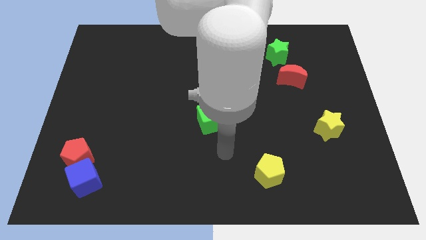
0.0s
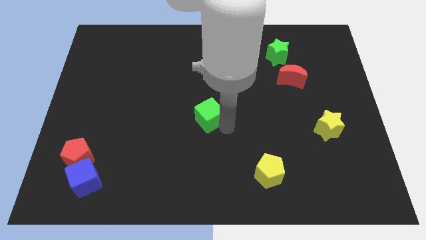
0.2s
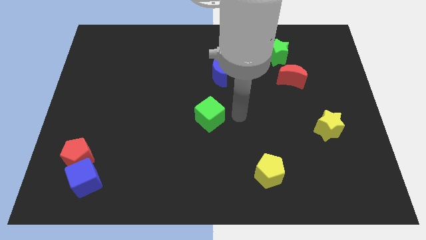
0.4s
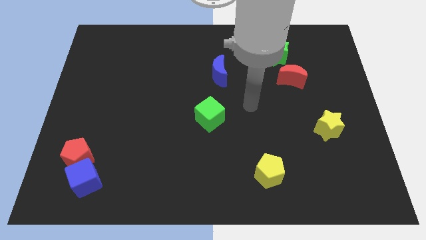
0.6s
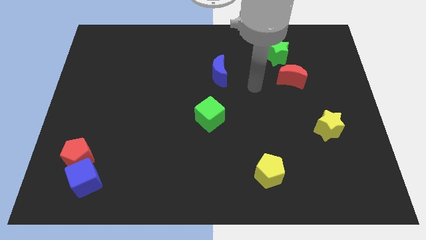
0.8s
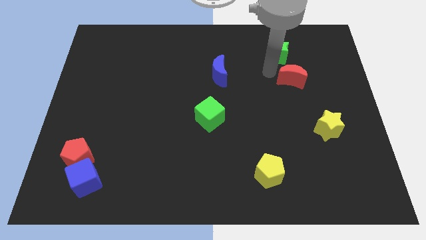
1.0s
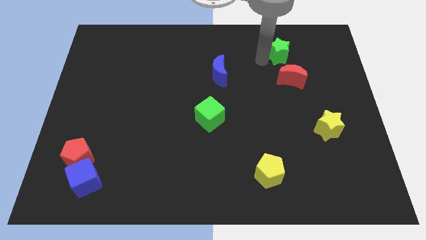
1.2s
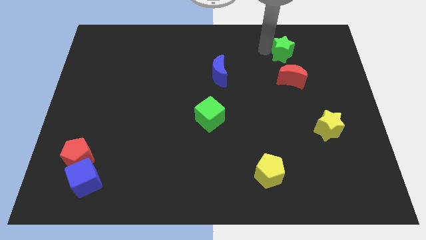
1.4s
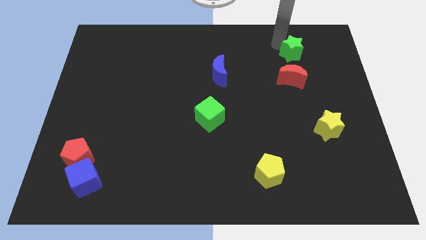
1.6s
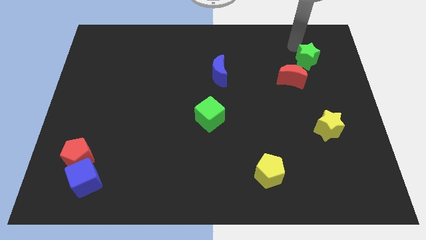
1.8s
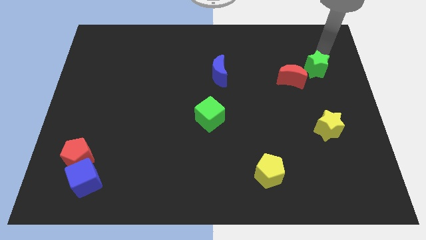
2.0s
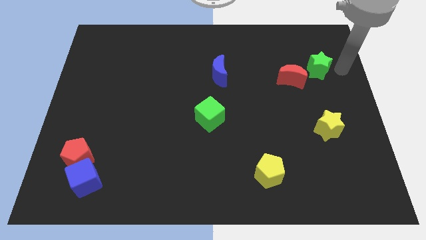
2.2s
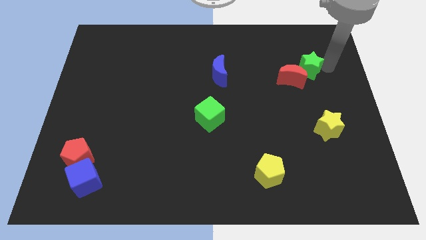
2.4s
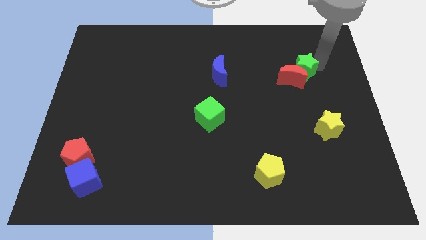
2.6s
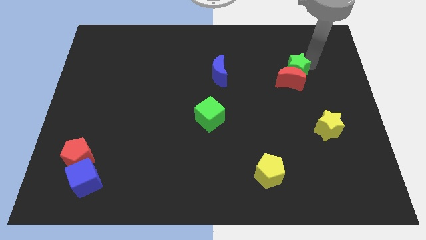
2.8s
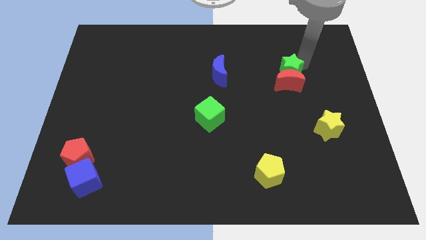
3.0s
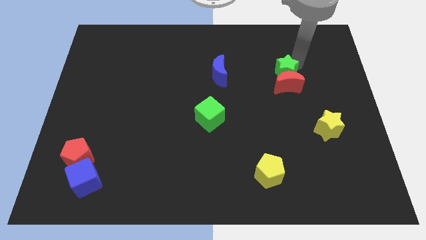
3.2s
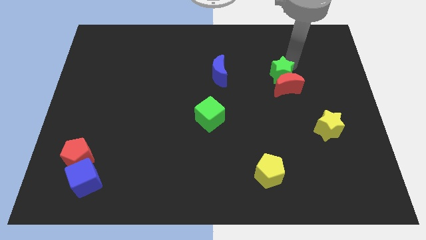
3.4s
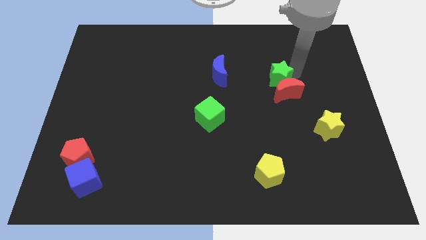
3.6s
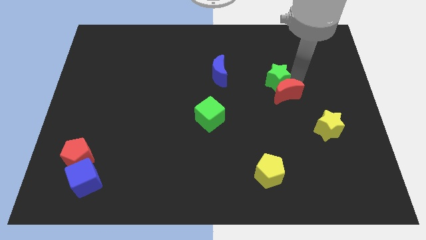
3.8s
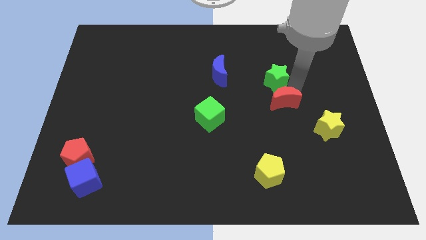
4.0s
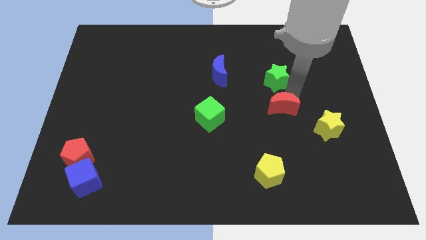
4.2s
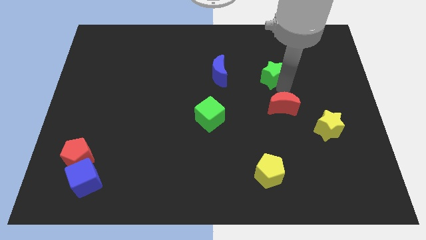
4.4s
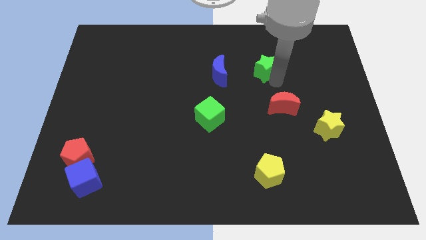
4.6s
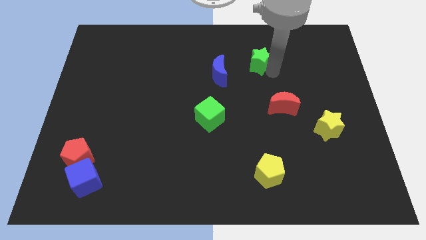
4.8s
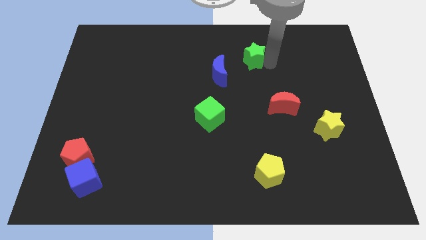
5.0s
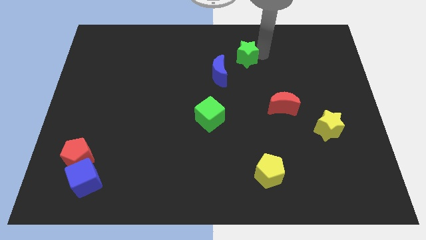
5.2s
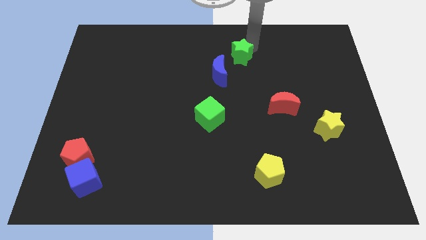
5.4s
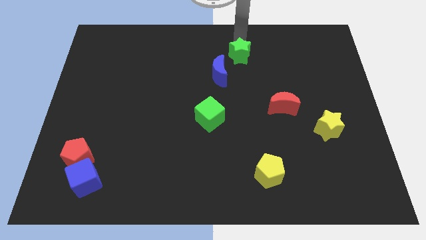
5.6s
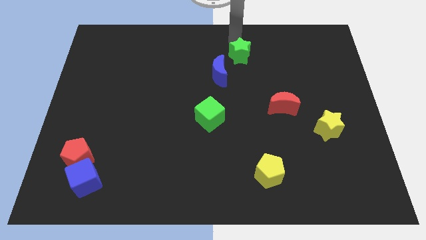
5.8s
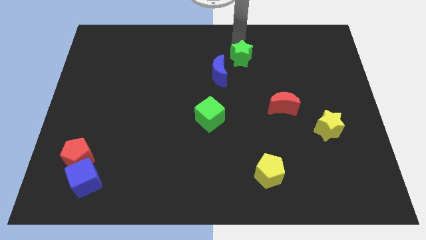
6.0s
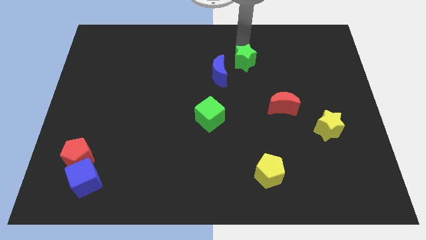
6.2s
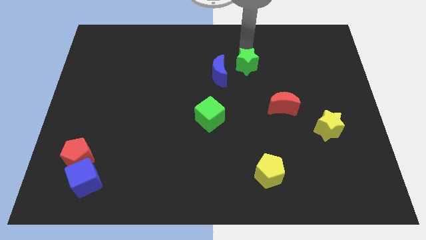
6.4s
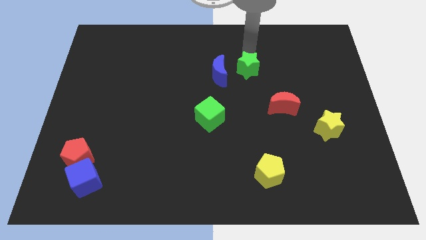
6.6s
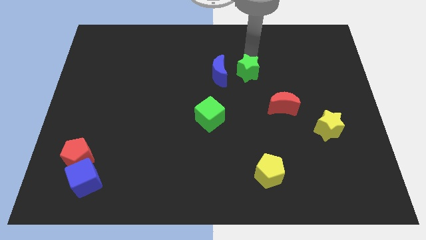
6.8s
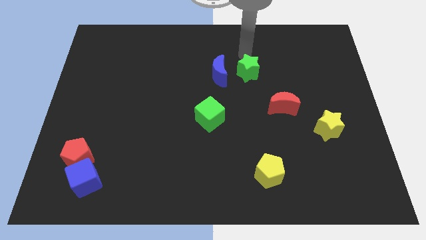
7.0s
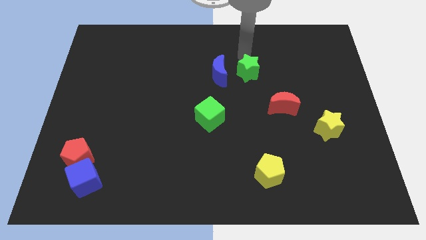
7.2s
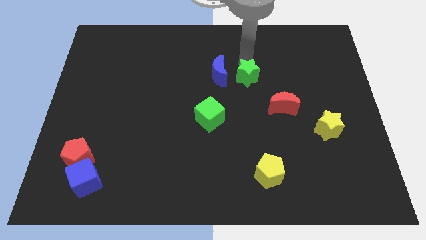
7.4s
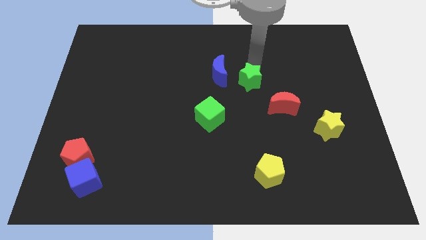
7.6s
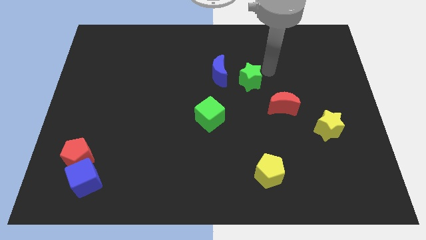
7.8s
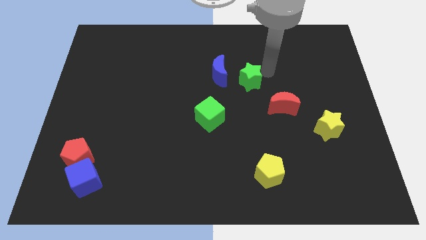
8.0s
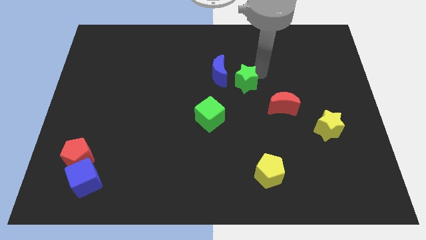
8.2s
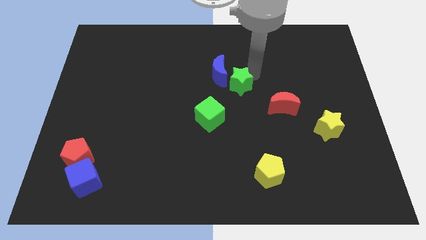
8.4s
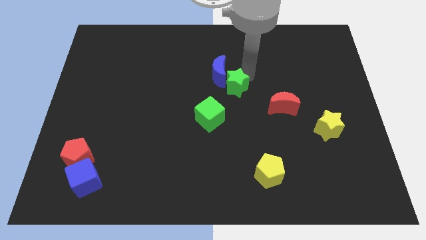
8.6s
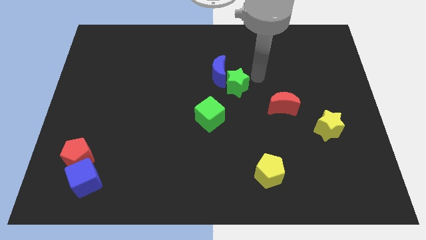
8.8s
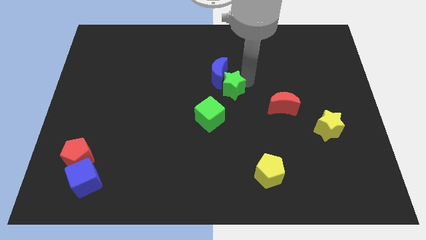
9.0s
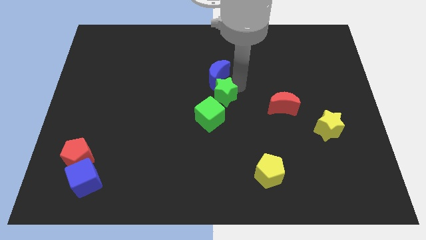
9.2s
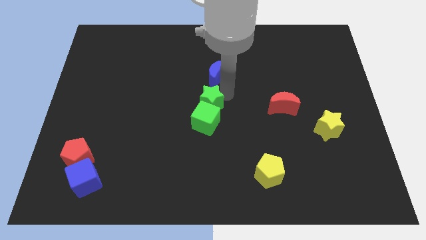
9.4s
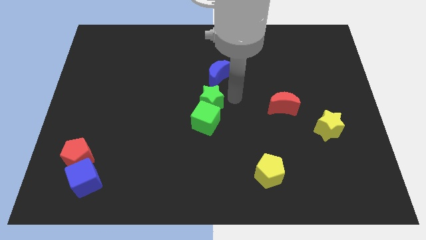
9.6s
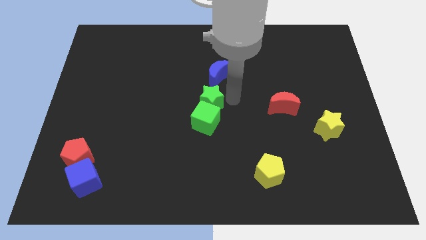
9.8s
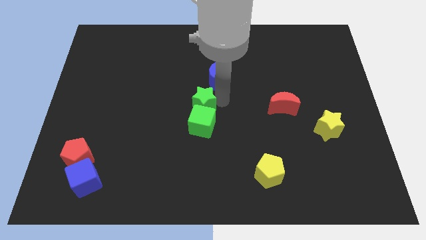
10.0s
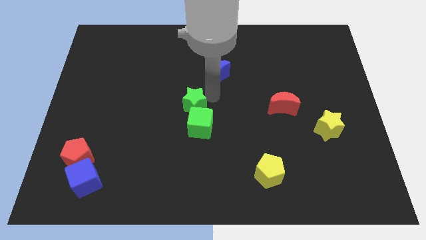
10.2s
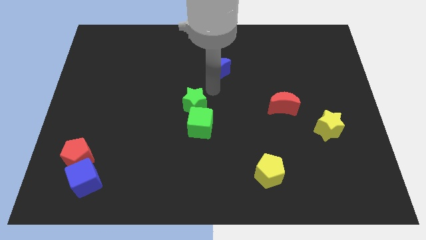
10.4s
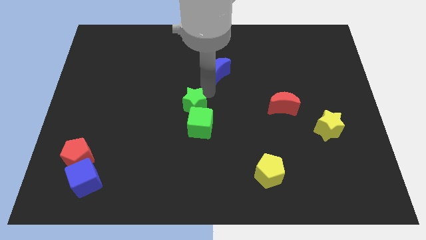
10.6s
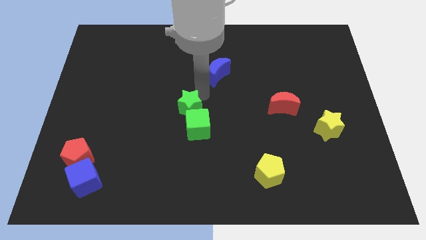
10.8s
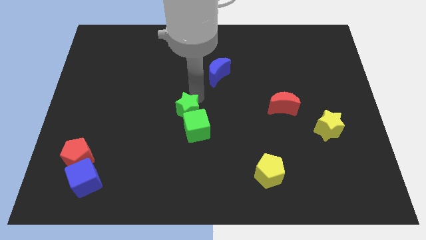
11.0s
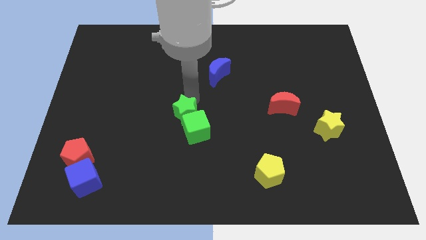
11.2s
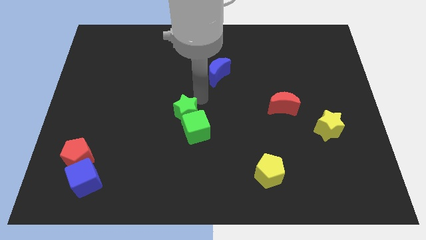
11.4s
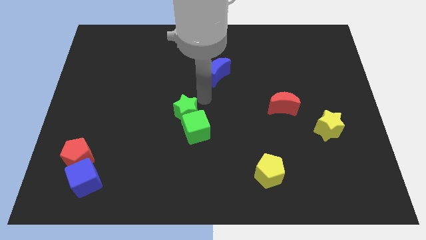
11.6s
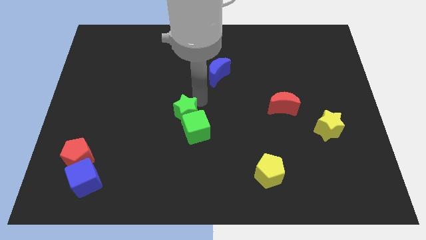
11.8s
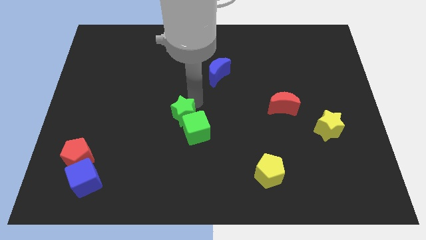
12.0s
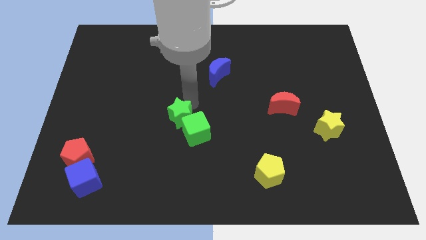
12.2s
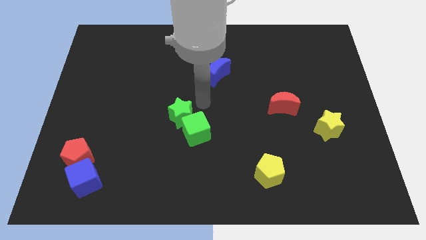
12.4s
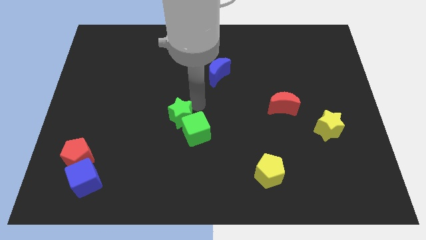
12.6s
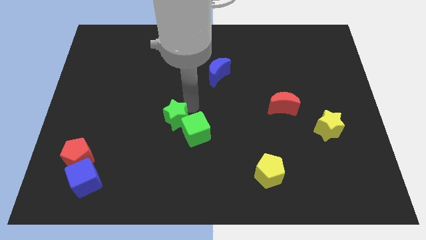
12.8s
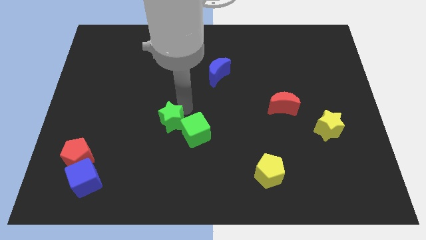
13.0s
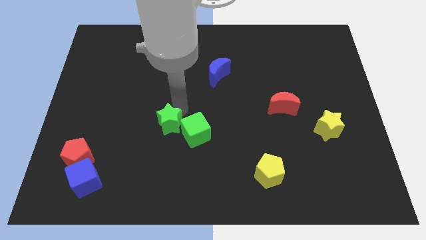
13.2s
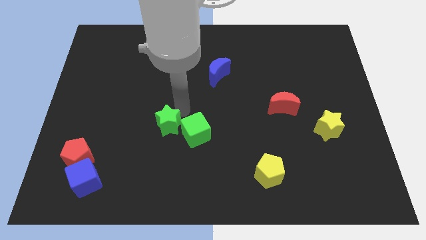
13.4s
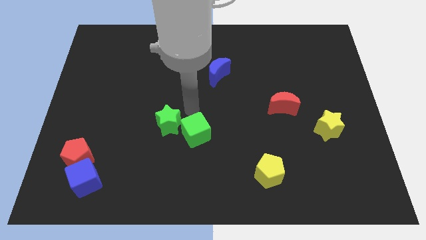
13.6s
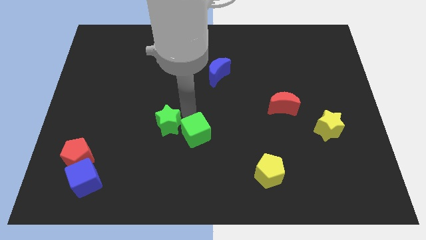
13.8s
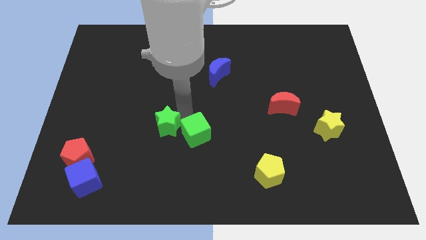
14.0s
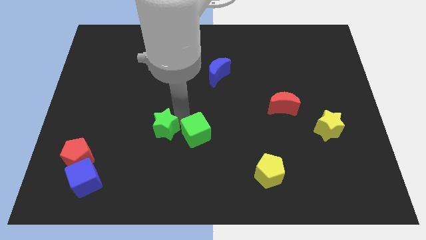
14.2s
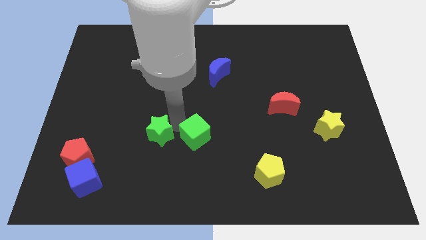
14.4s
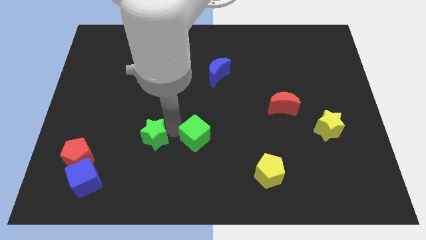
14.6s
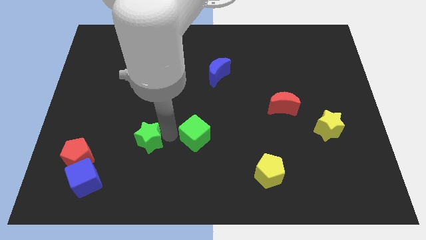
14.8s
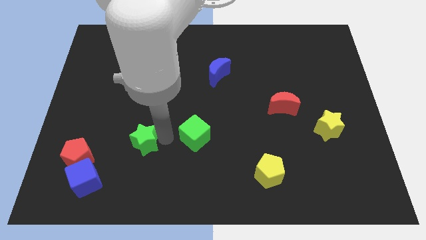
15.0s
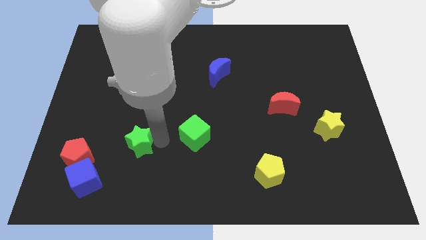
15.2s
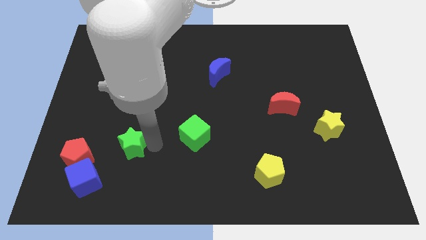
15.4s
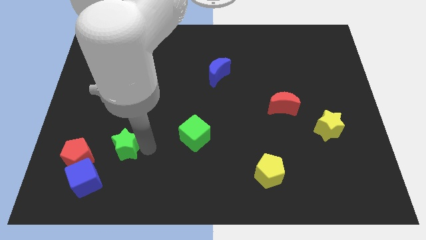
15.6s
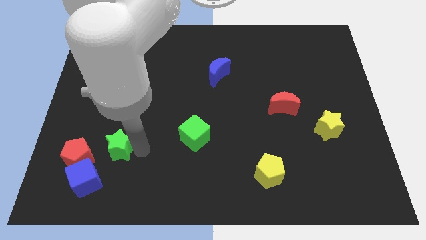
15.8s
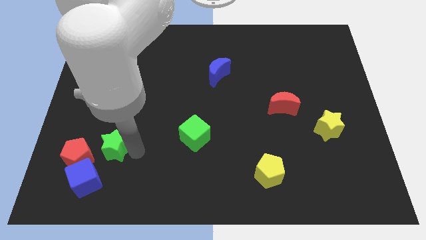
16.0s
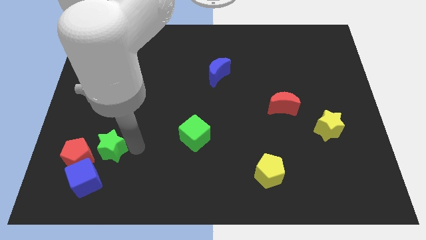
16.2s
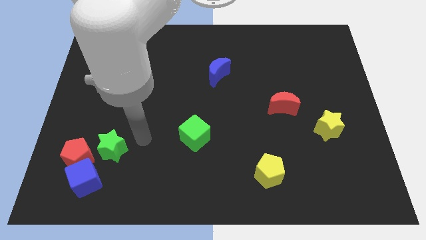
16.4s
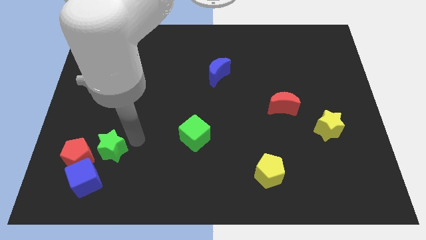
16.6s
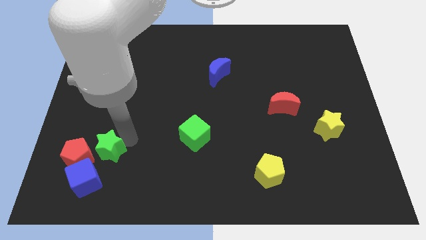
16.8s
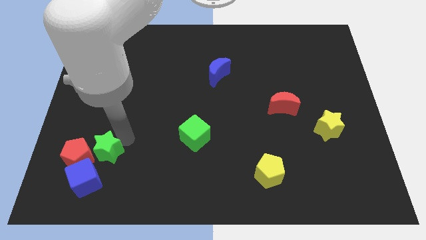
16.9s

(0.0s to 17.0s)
move the green star close to the red pentagon
